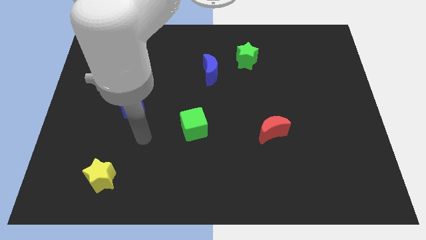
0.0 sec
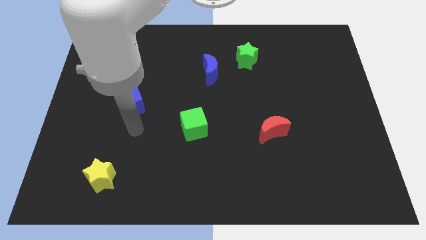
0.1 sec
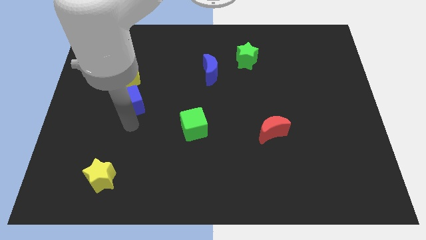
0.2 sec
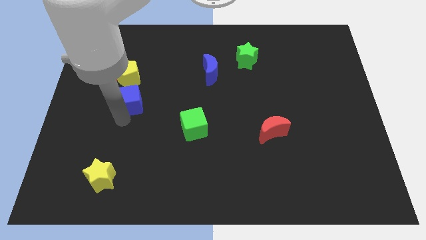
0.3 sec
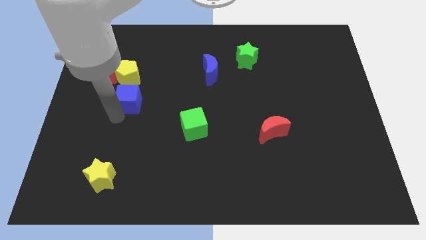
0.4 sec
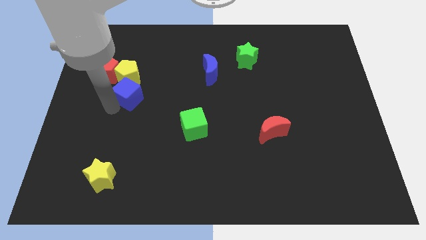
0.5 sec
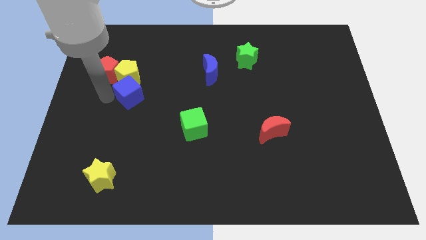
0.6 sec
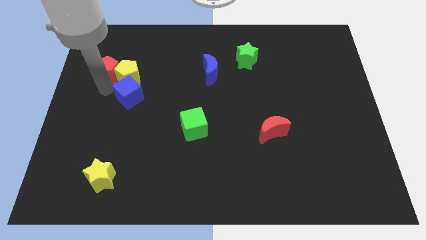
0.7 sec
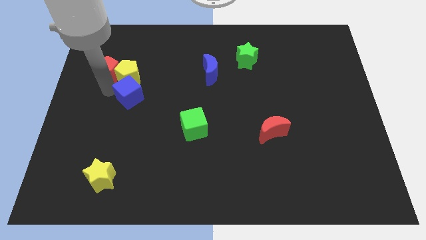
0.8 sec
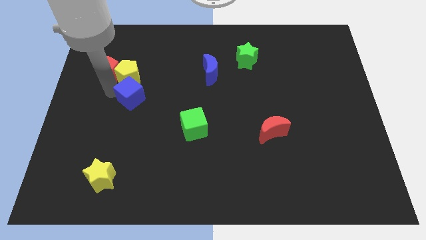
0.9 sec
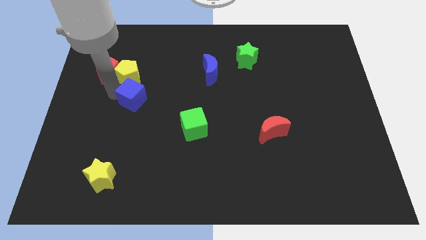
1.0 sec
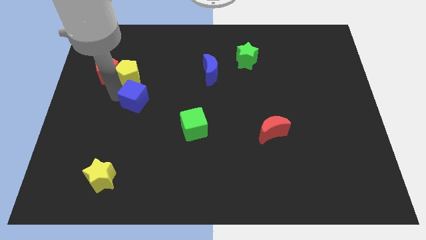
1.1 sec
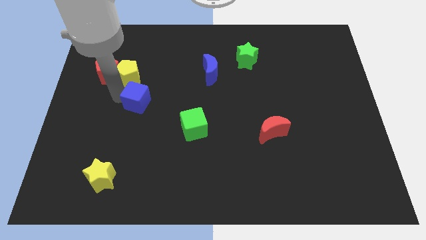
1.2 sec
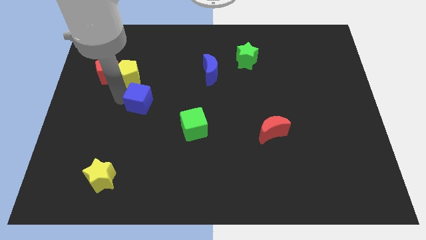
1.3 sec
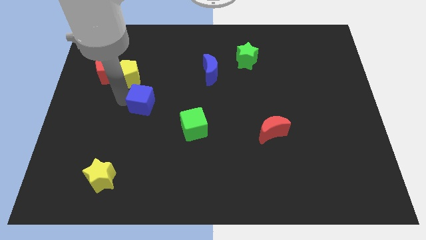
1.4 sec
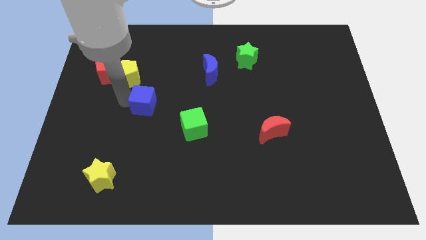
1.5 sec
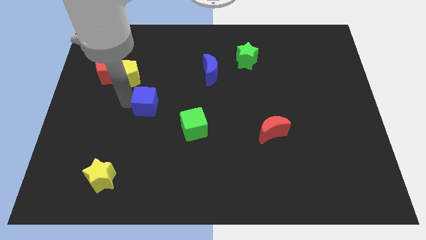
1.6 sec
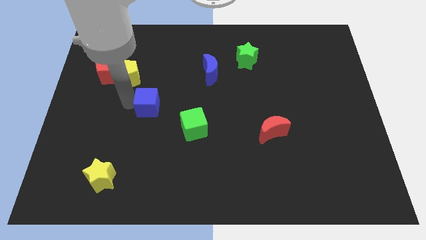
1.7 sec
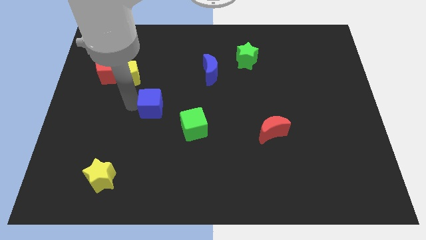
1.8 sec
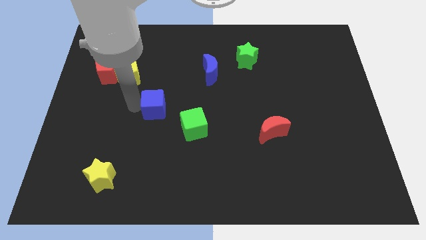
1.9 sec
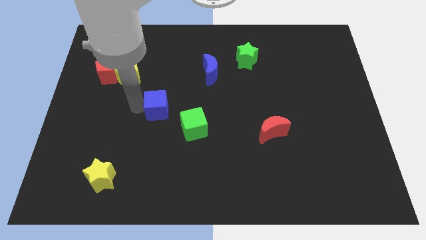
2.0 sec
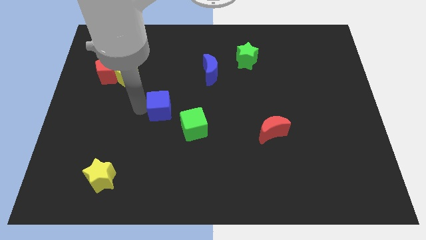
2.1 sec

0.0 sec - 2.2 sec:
slide the blue cube a little right

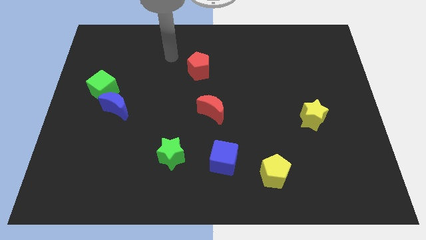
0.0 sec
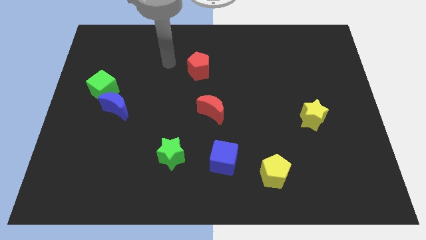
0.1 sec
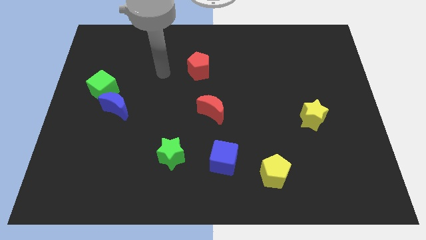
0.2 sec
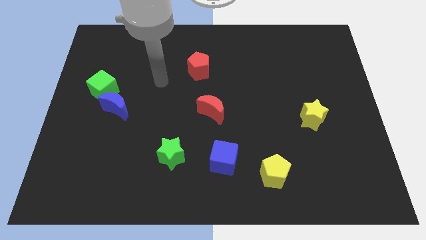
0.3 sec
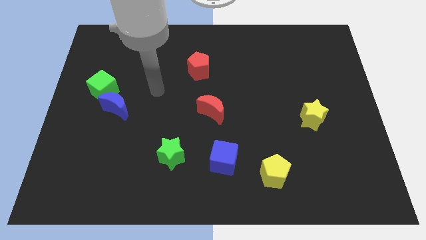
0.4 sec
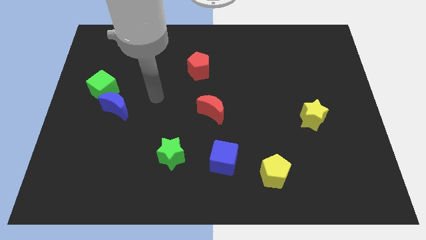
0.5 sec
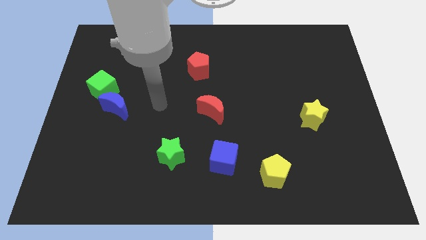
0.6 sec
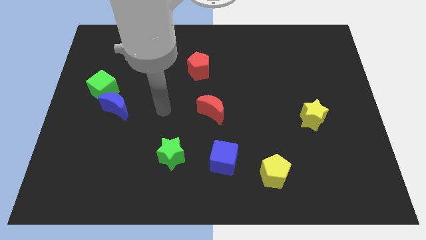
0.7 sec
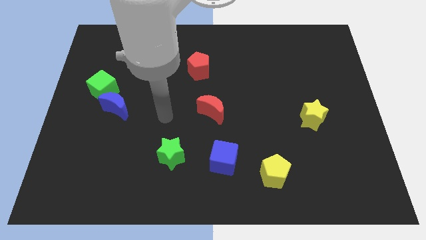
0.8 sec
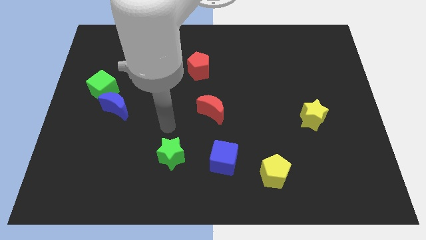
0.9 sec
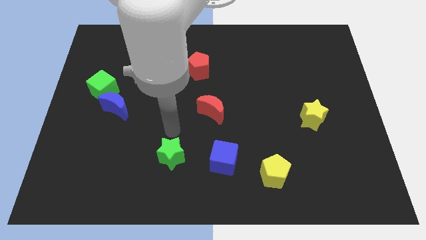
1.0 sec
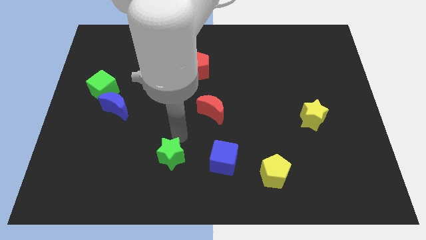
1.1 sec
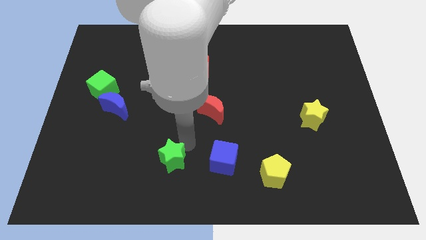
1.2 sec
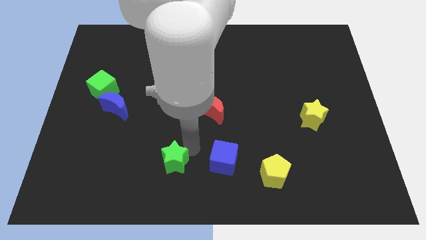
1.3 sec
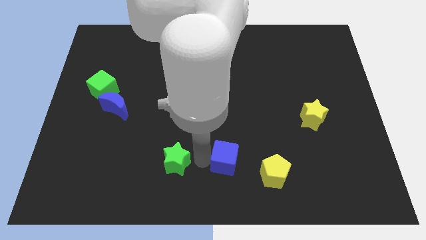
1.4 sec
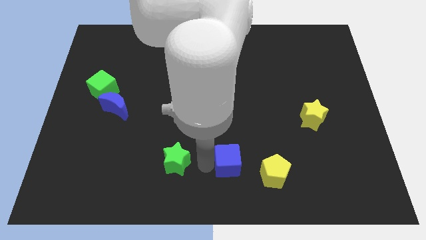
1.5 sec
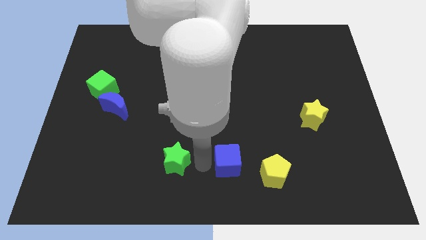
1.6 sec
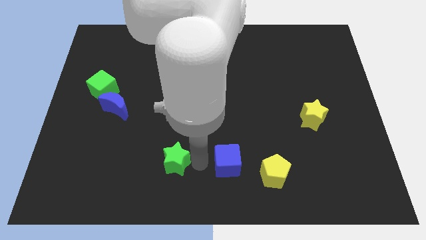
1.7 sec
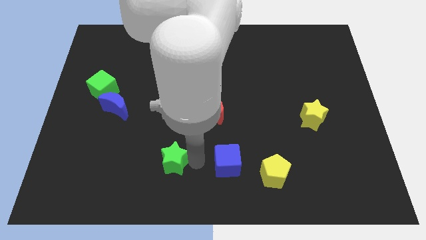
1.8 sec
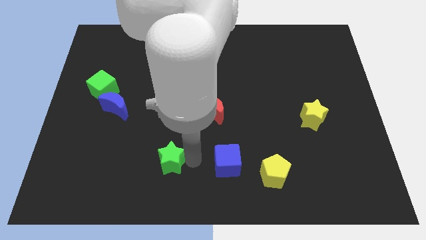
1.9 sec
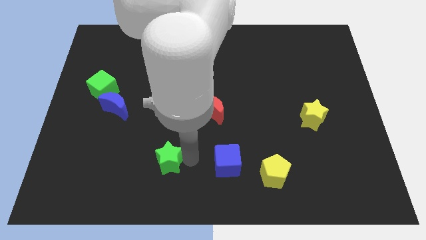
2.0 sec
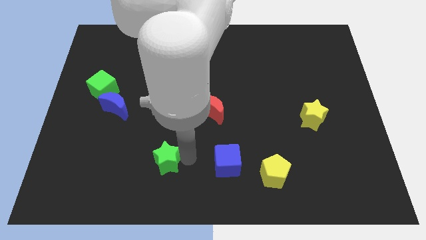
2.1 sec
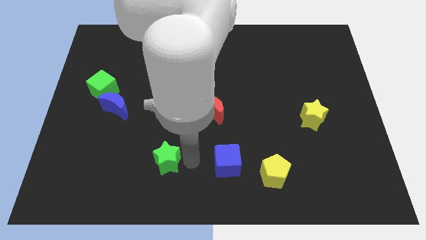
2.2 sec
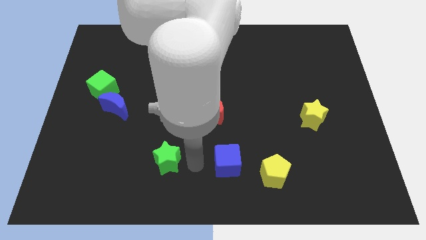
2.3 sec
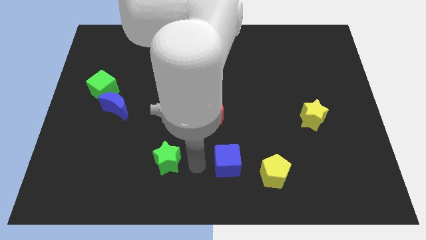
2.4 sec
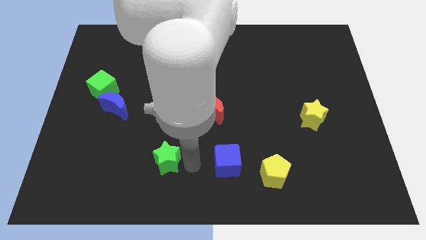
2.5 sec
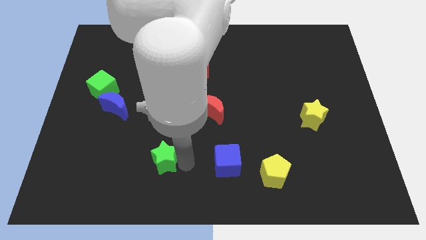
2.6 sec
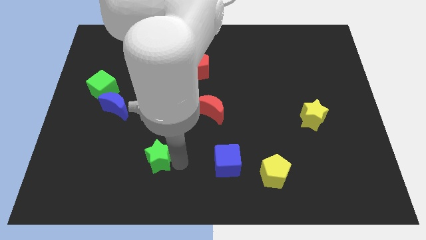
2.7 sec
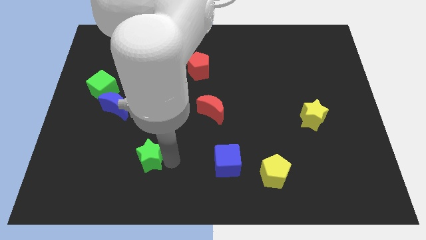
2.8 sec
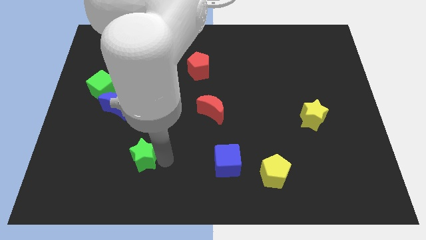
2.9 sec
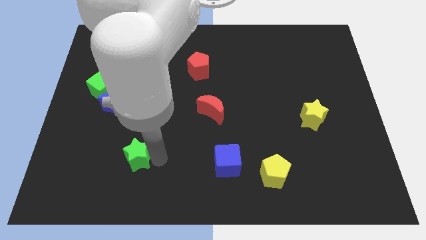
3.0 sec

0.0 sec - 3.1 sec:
push the green star a bit to the left

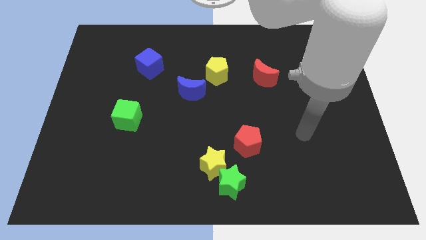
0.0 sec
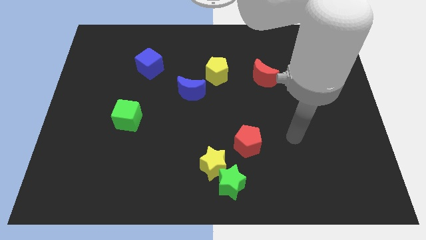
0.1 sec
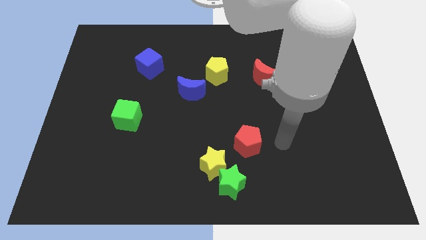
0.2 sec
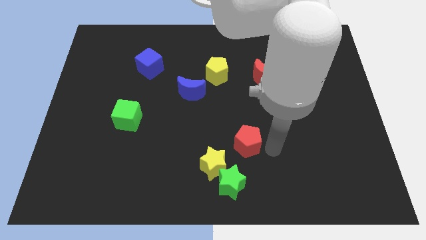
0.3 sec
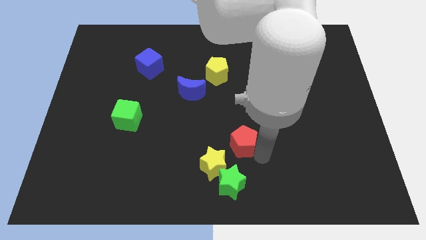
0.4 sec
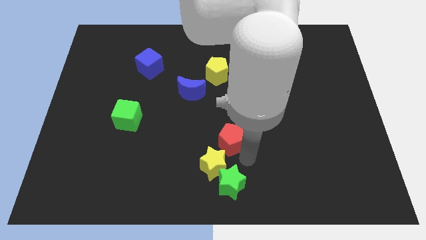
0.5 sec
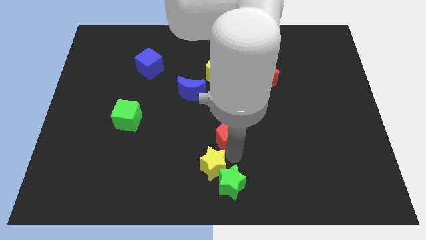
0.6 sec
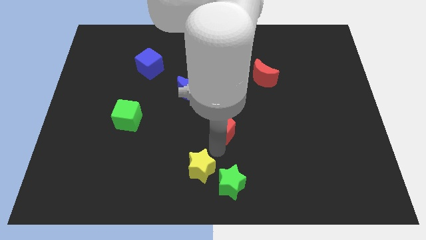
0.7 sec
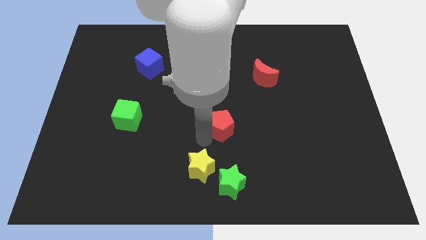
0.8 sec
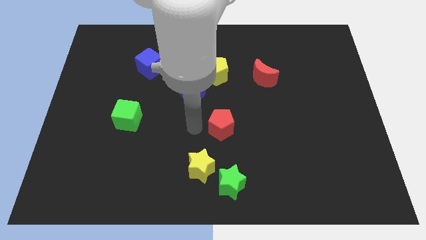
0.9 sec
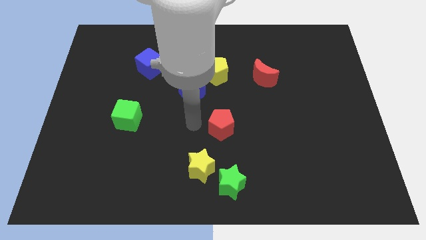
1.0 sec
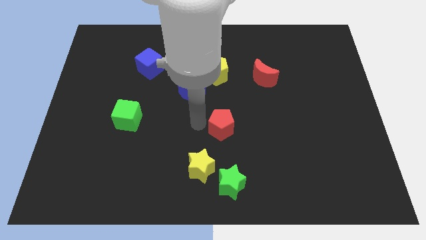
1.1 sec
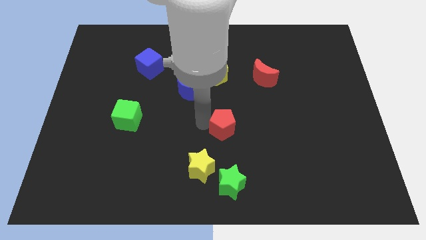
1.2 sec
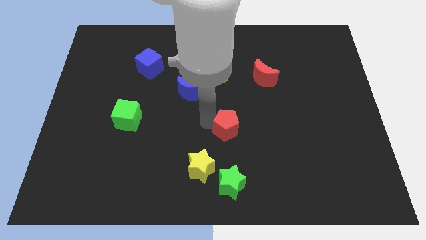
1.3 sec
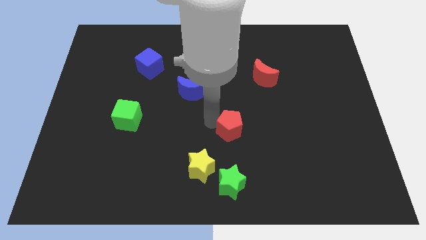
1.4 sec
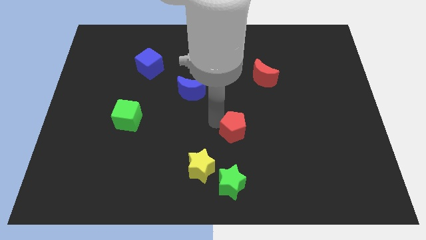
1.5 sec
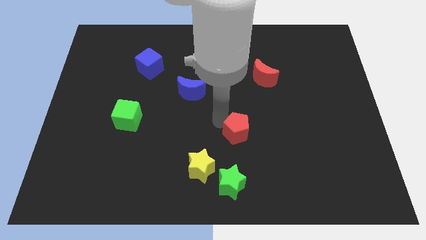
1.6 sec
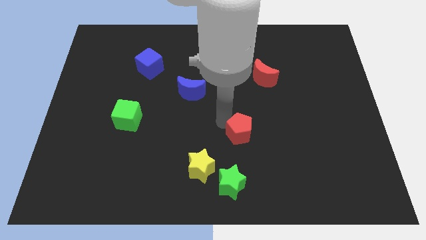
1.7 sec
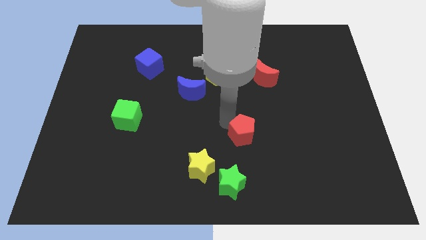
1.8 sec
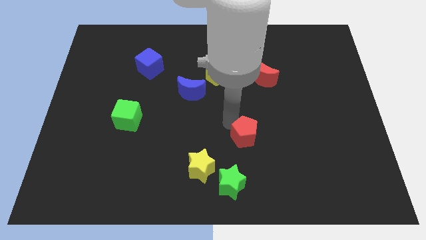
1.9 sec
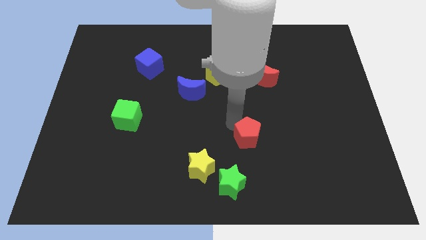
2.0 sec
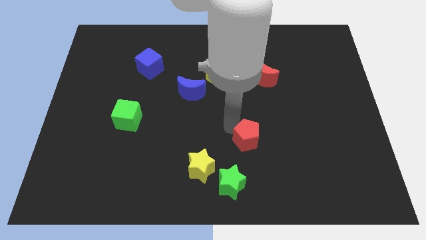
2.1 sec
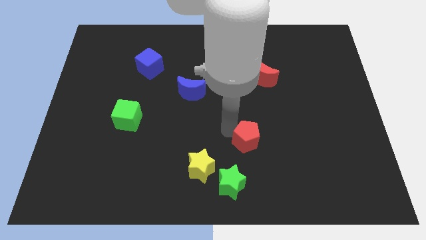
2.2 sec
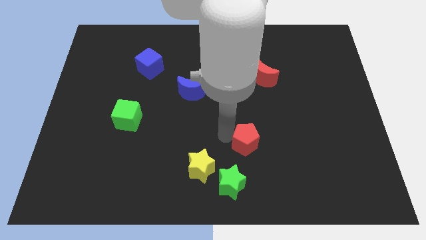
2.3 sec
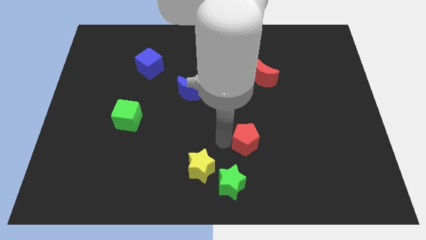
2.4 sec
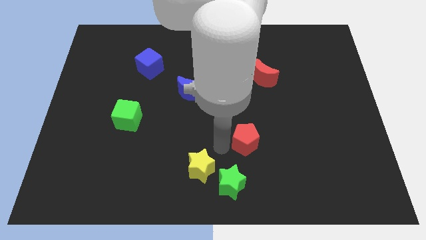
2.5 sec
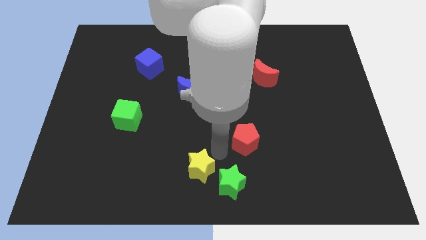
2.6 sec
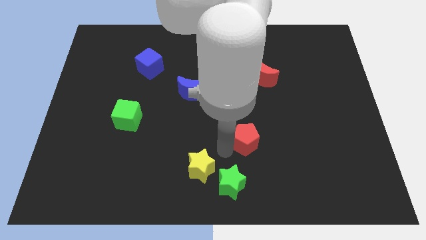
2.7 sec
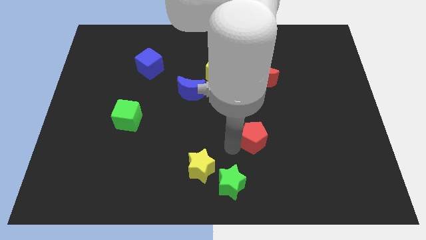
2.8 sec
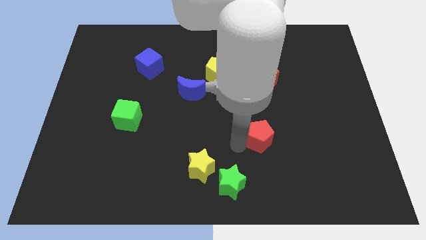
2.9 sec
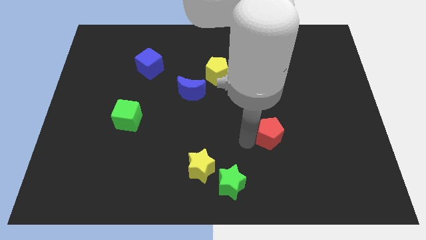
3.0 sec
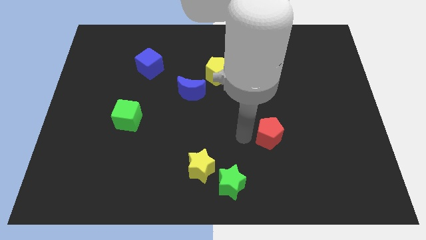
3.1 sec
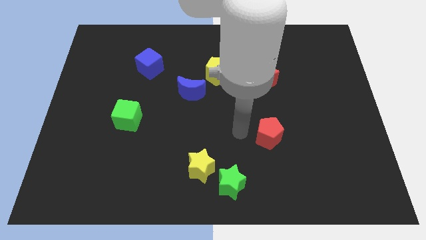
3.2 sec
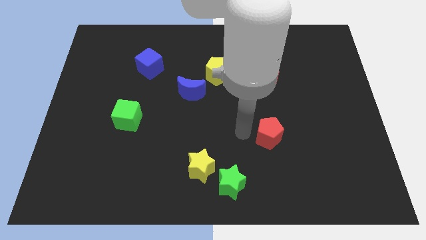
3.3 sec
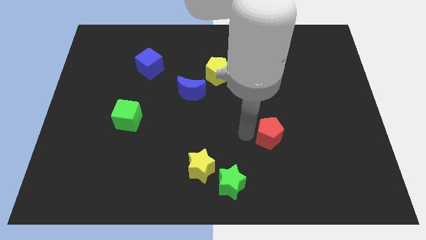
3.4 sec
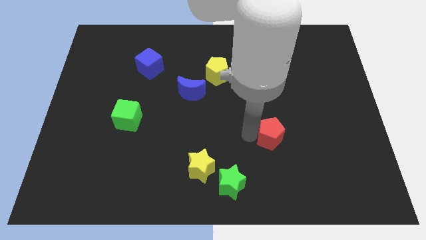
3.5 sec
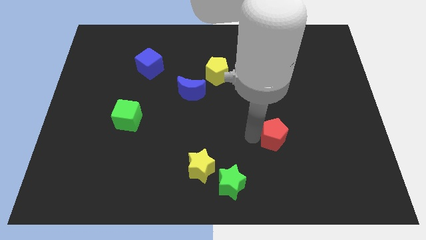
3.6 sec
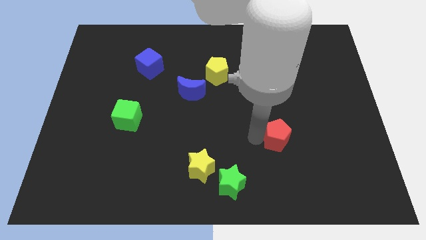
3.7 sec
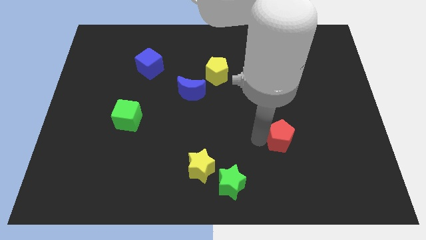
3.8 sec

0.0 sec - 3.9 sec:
slightly move the red pentagon to the right
